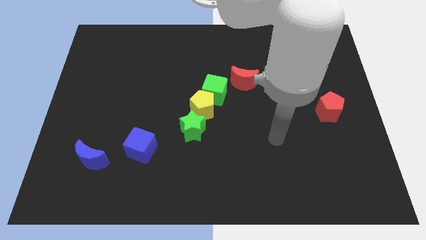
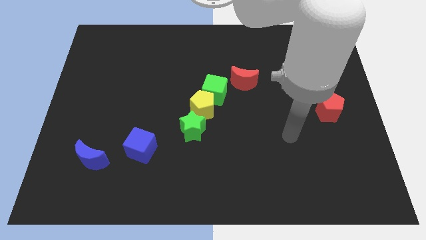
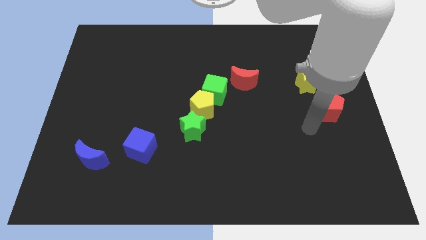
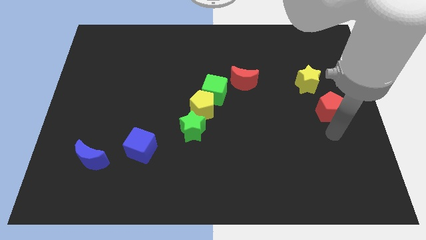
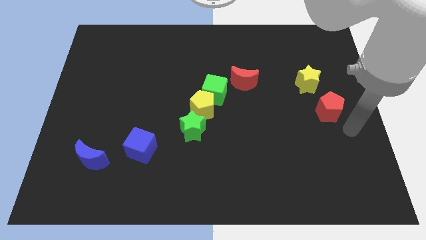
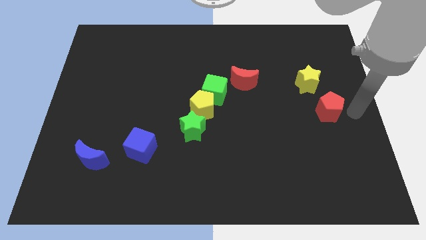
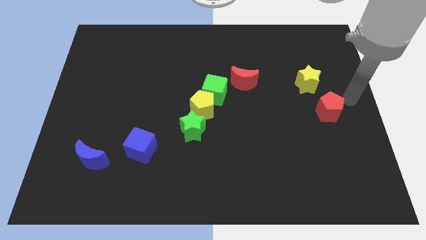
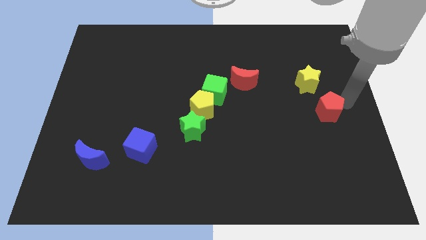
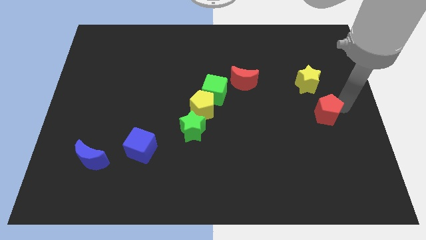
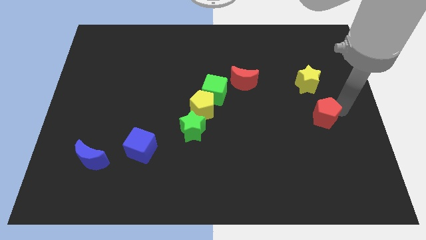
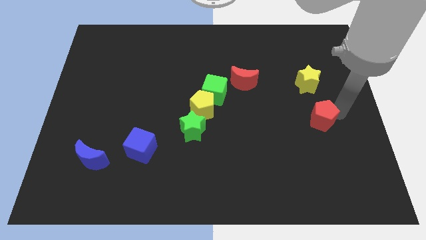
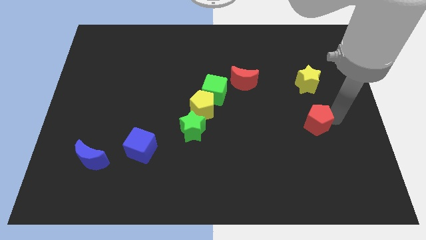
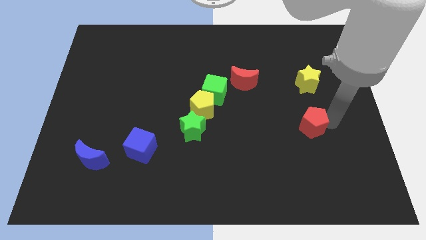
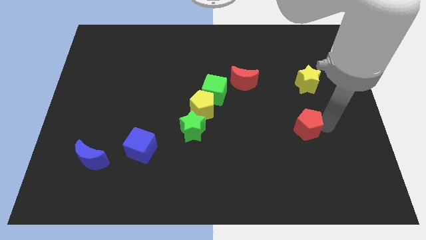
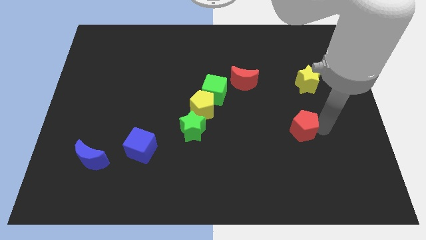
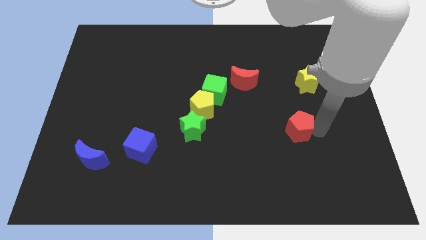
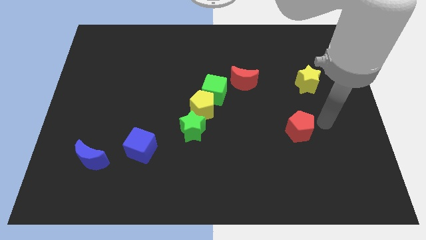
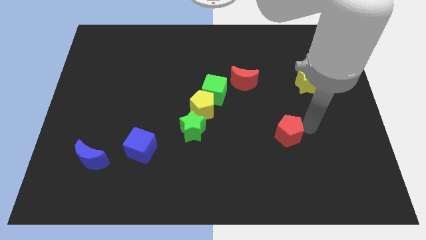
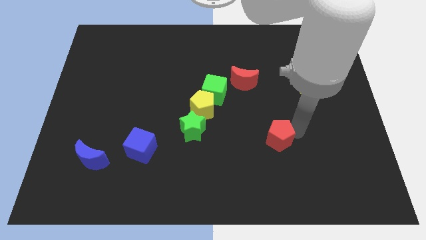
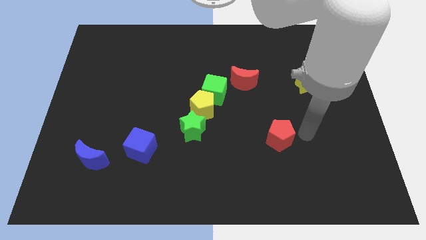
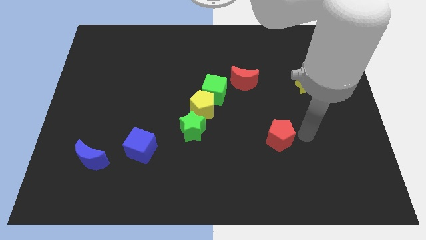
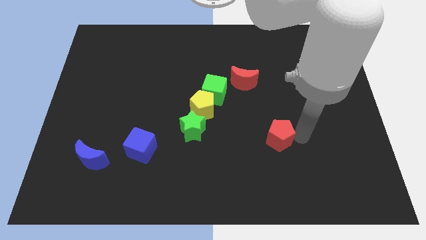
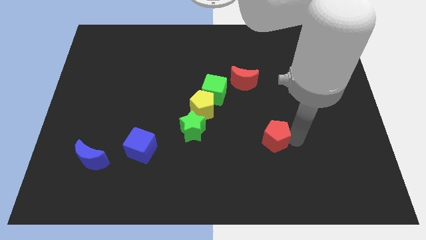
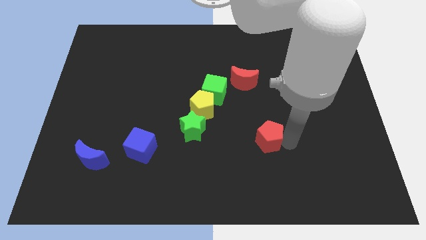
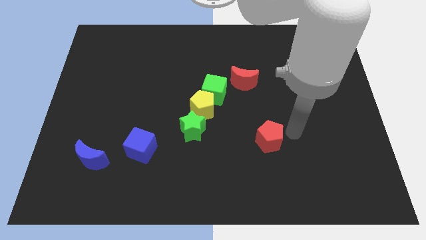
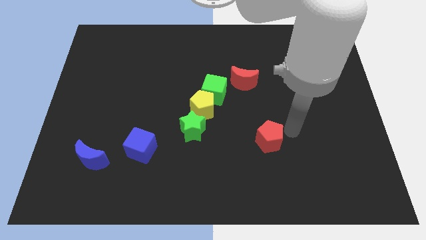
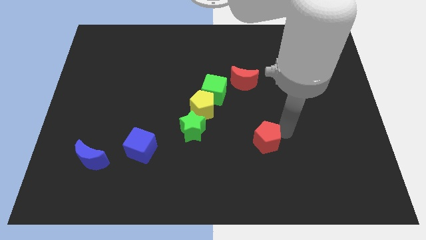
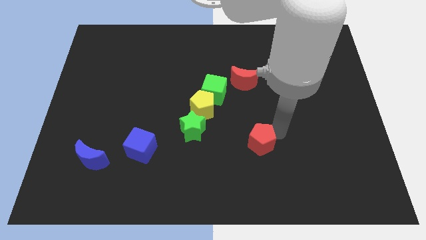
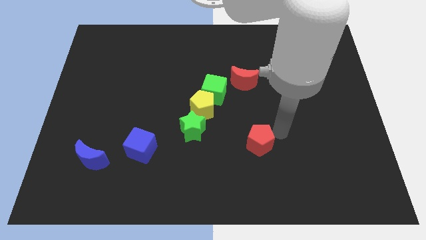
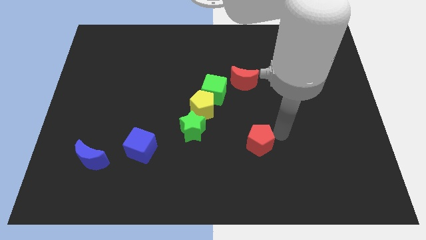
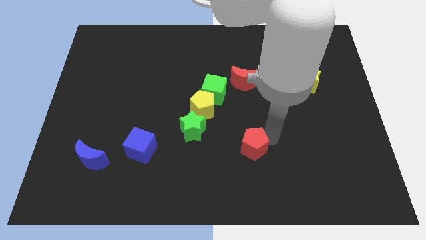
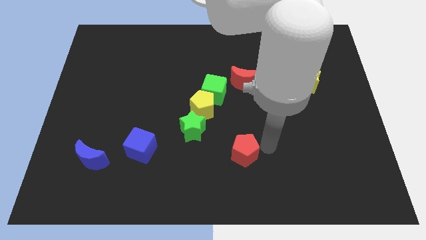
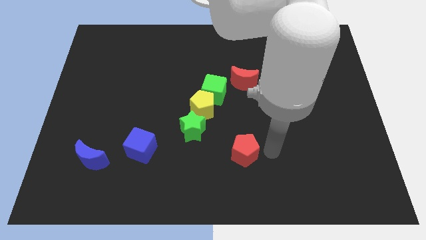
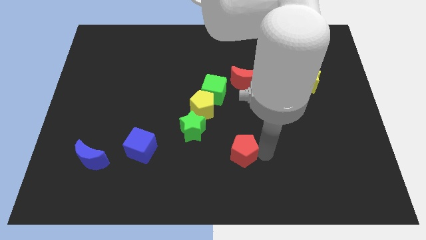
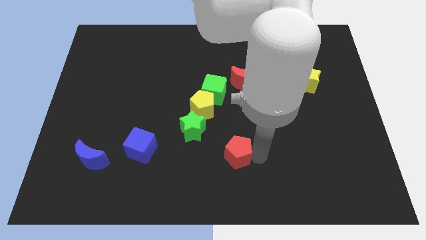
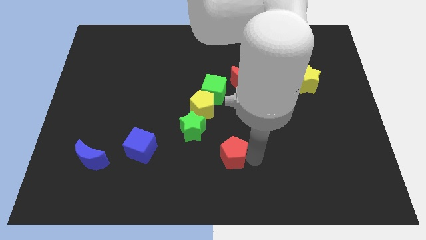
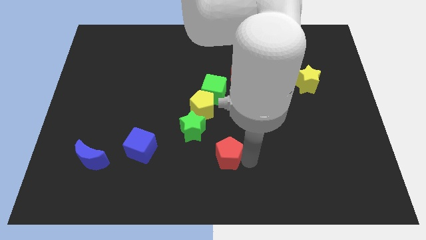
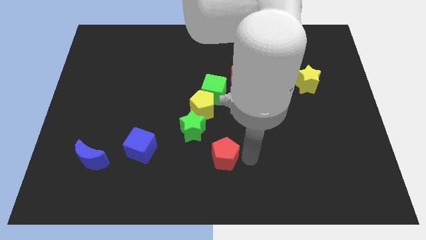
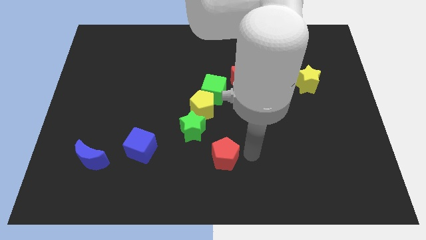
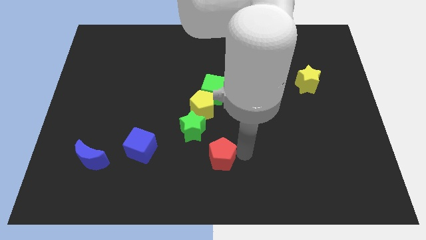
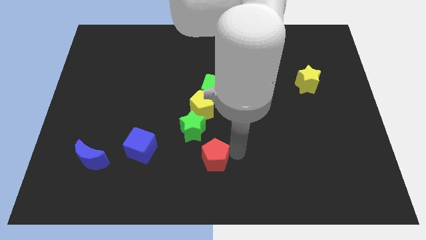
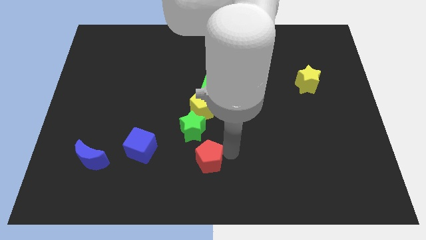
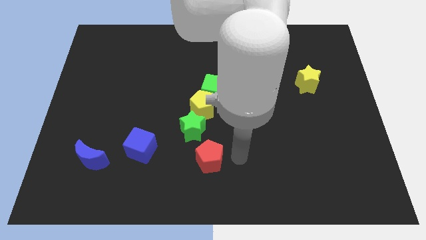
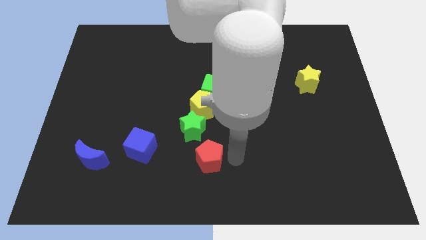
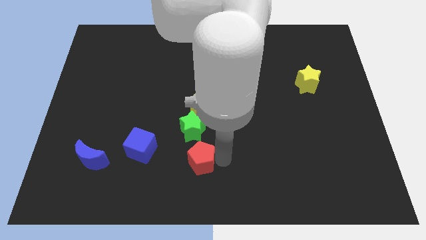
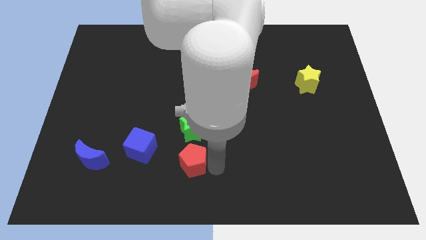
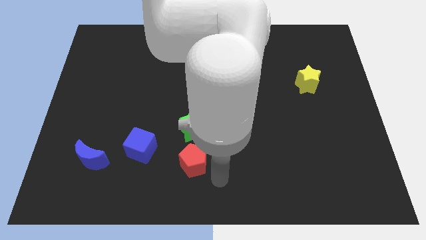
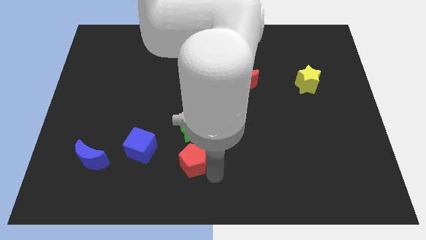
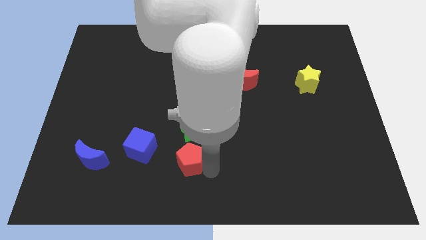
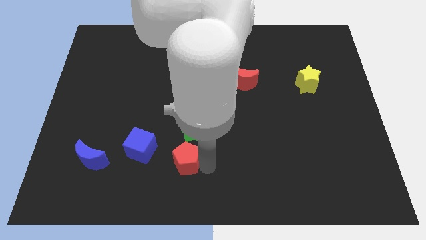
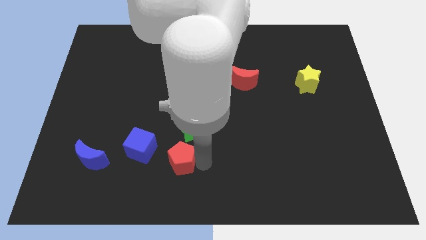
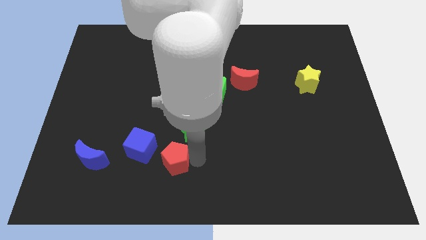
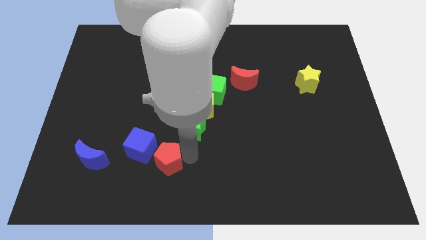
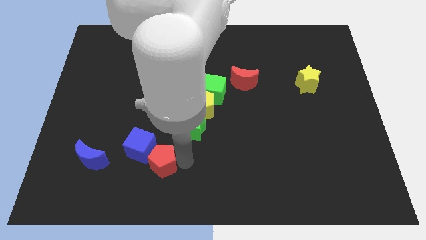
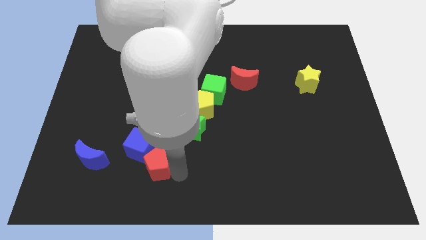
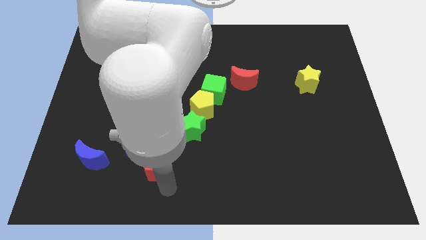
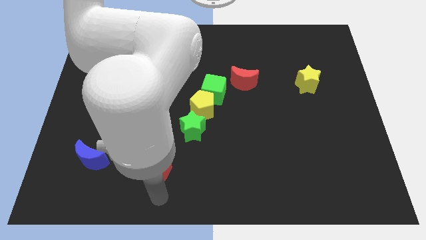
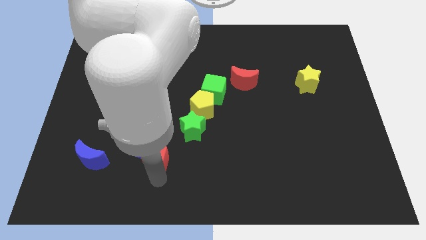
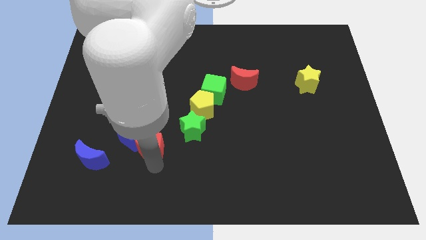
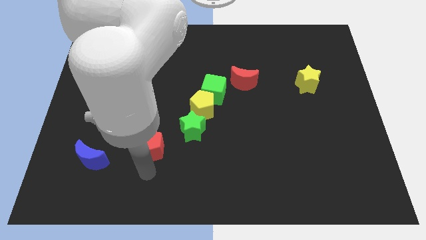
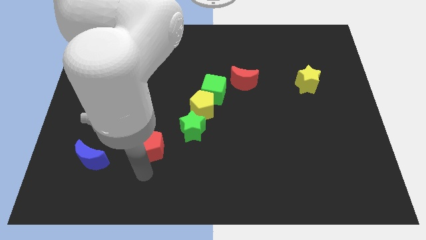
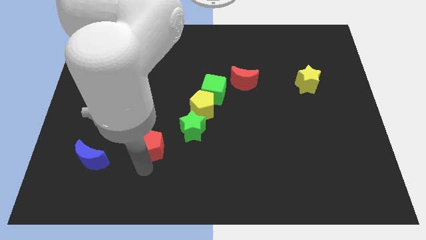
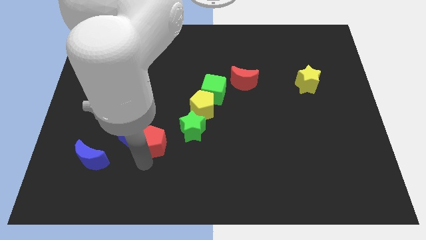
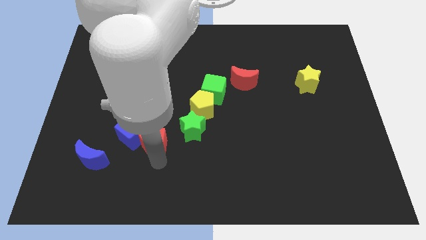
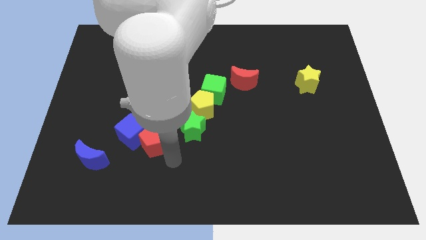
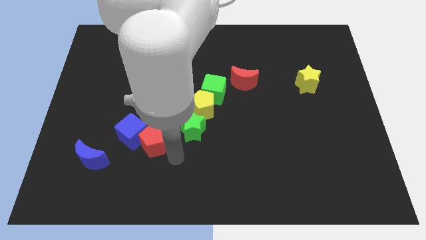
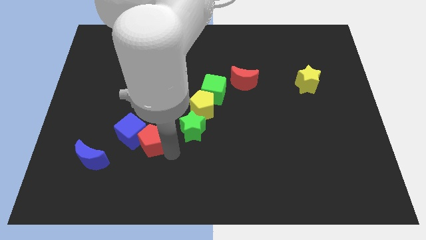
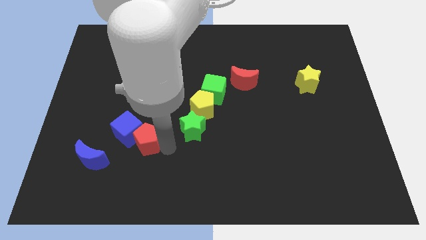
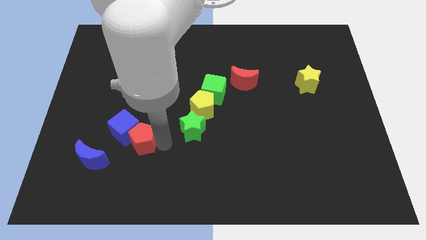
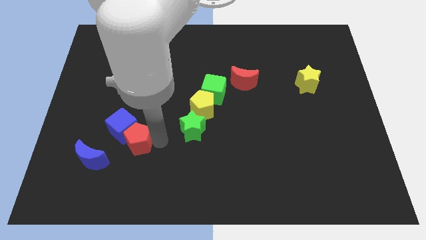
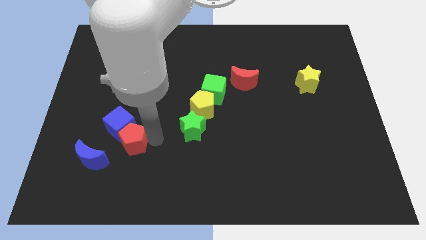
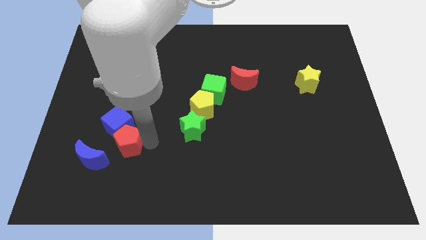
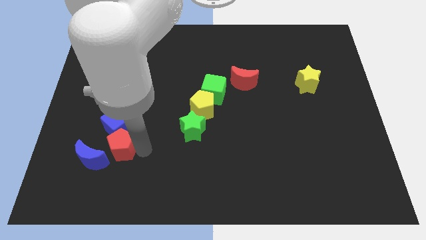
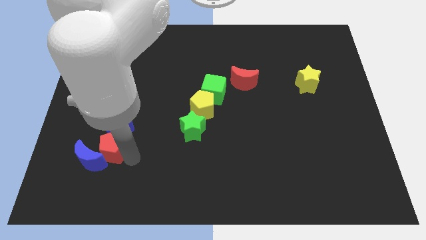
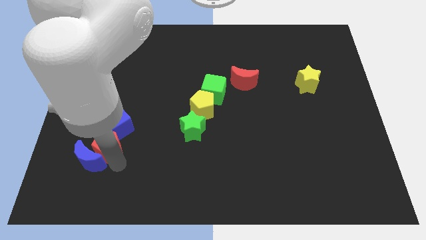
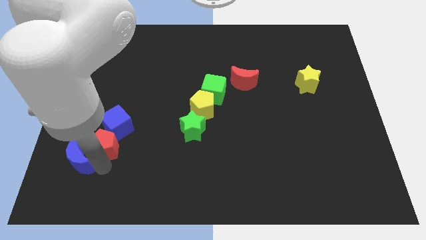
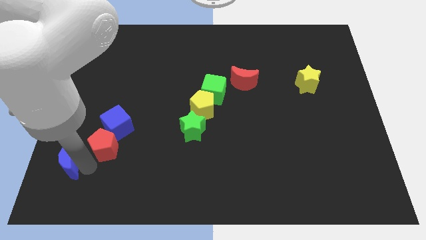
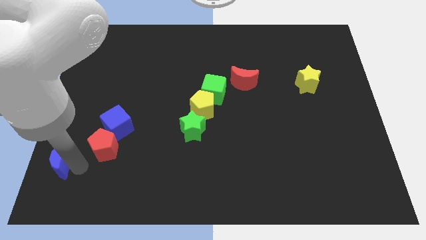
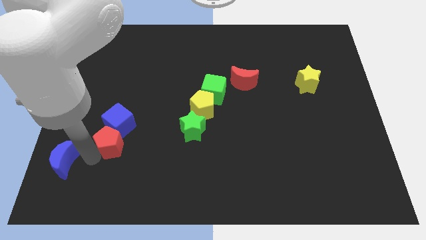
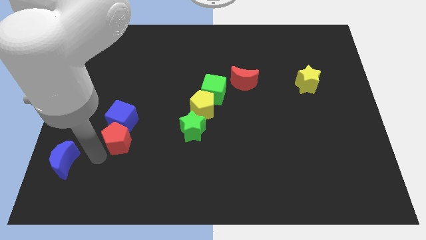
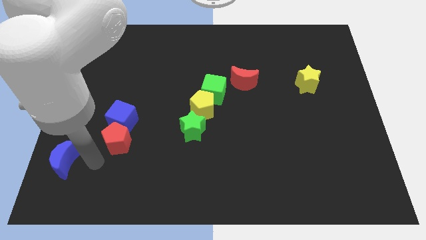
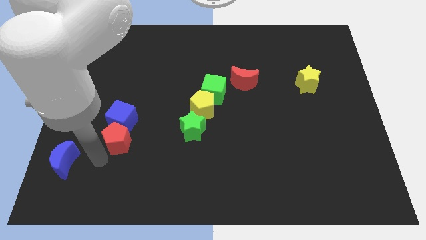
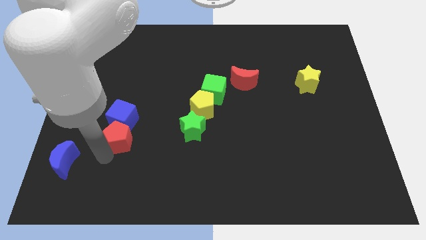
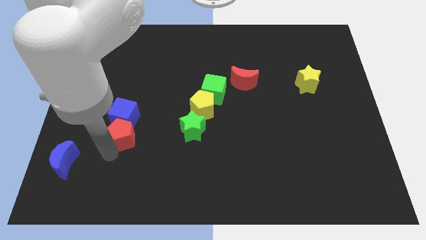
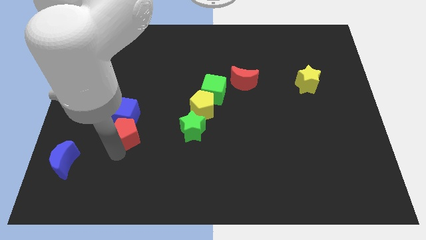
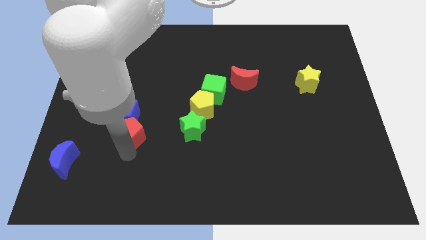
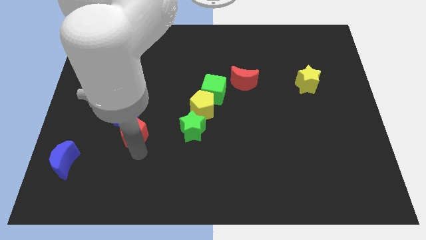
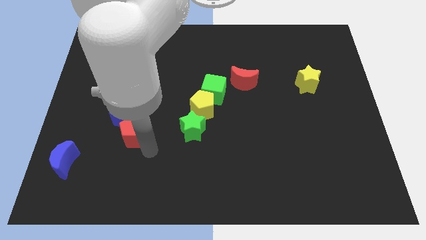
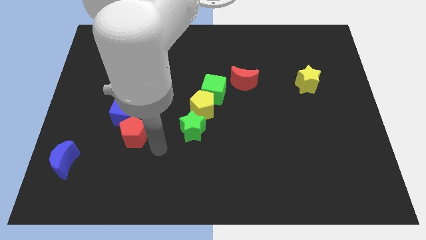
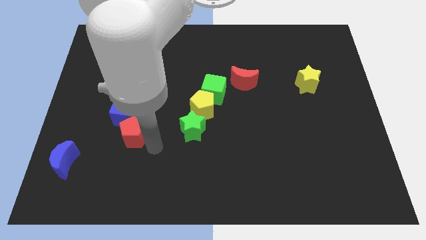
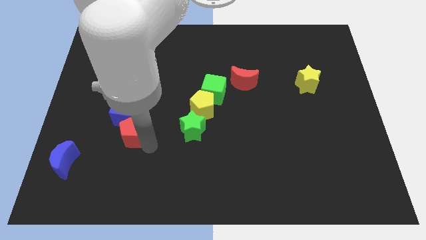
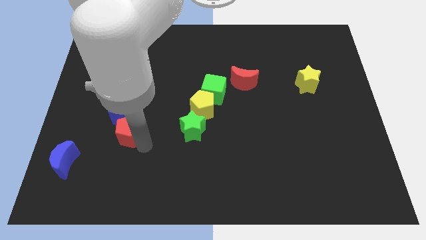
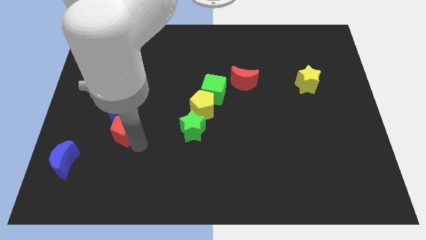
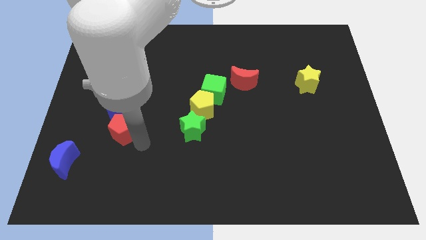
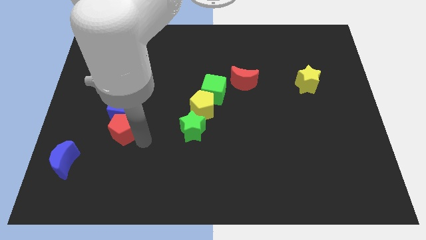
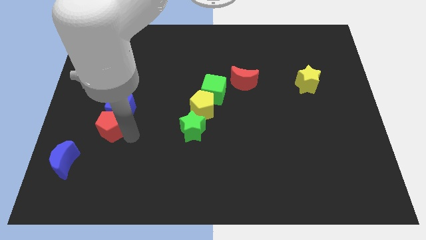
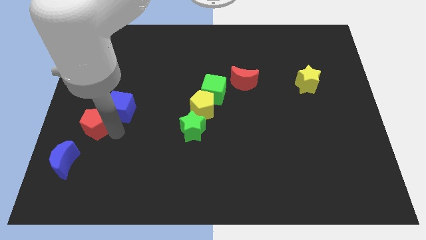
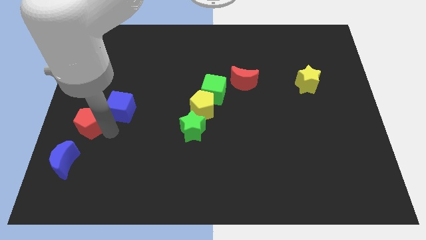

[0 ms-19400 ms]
push the red pentagon to the left side
